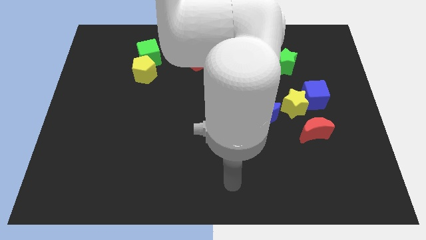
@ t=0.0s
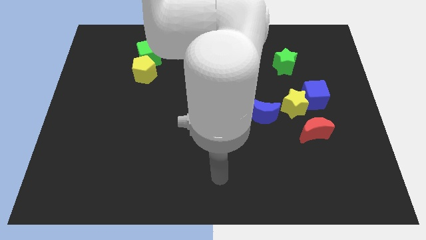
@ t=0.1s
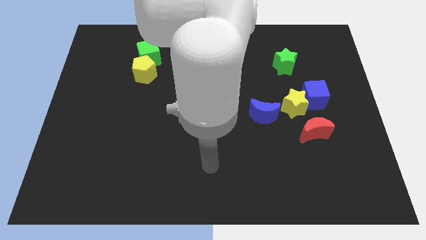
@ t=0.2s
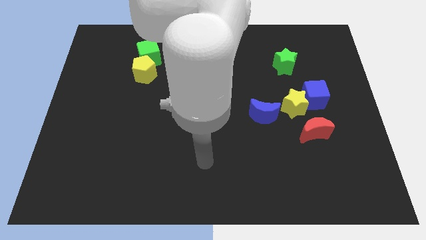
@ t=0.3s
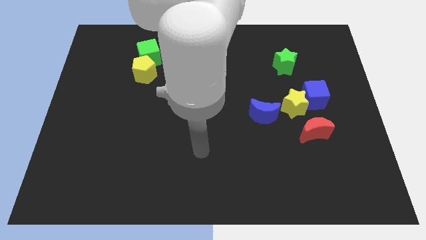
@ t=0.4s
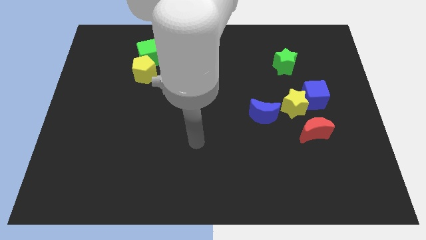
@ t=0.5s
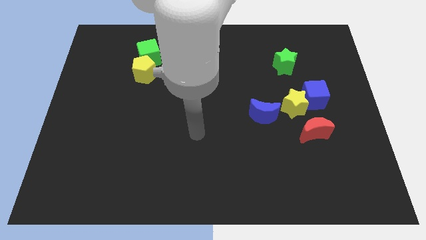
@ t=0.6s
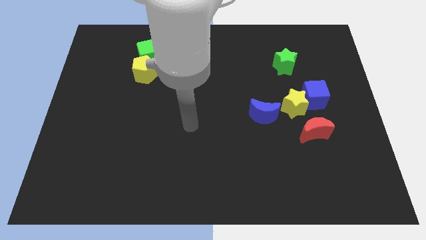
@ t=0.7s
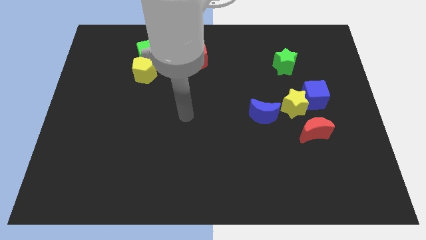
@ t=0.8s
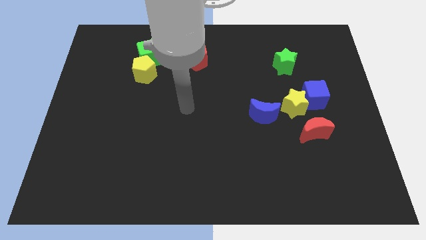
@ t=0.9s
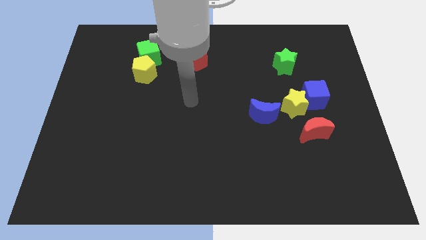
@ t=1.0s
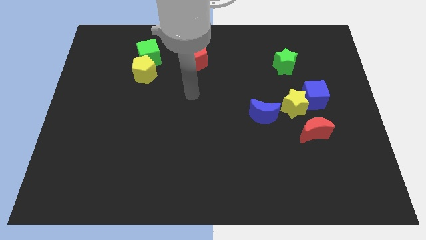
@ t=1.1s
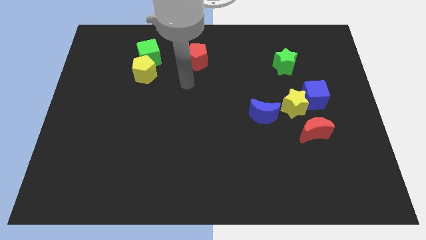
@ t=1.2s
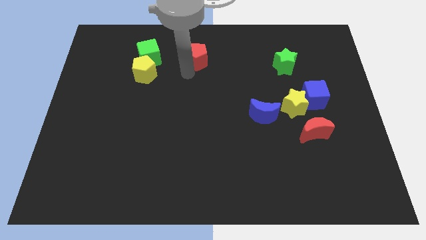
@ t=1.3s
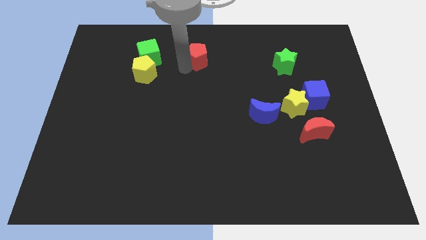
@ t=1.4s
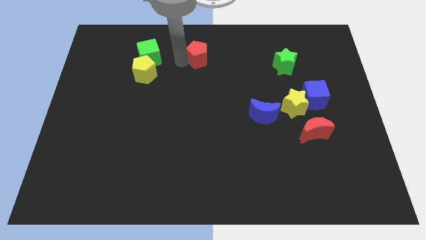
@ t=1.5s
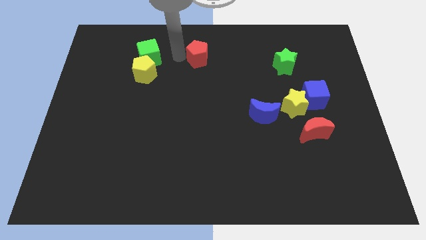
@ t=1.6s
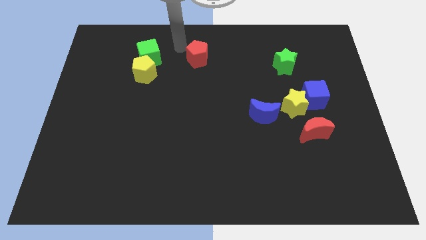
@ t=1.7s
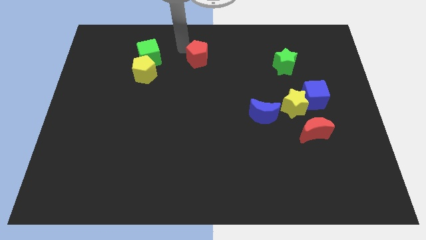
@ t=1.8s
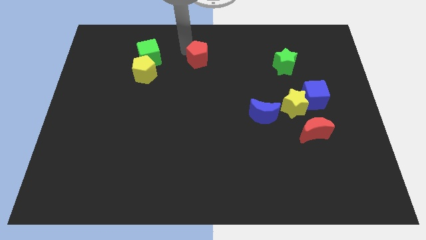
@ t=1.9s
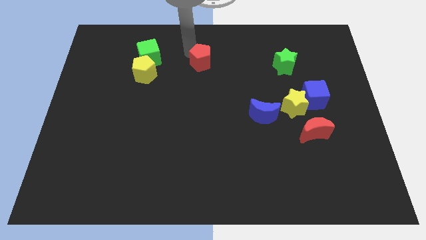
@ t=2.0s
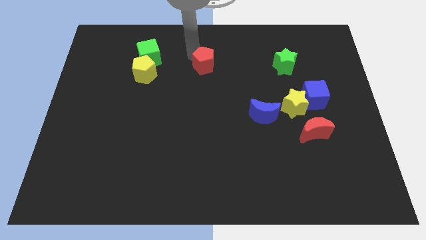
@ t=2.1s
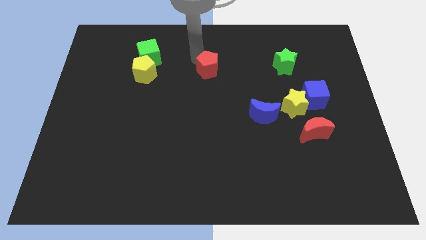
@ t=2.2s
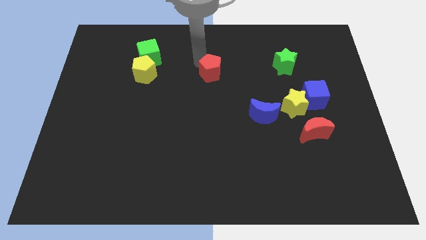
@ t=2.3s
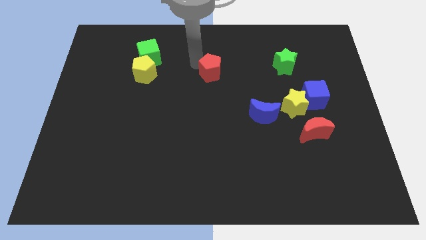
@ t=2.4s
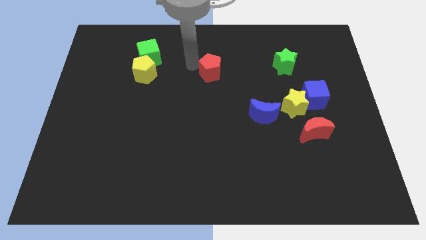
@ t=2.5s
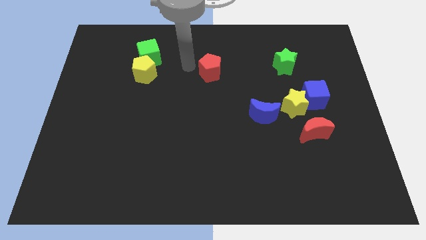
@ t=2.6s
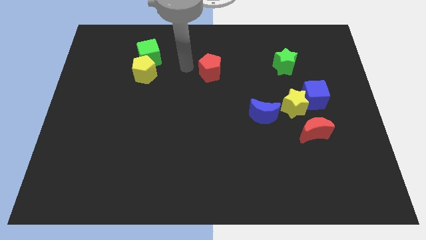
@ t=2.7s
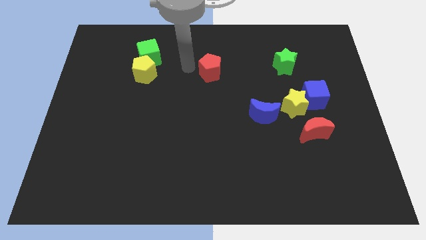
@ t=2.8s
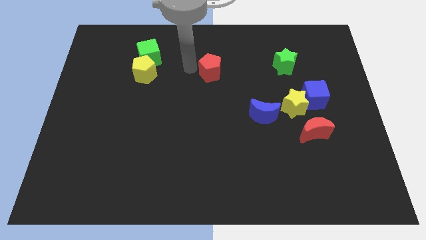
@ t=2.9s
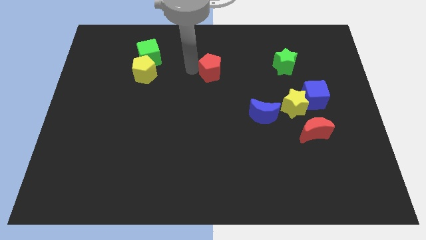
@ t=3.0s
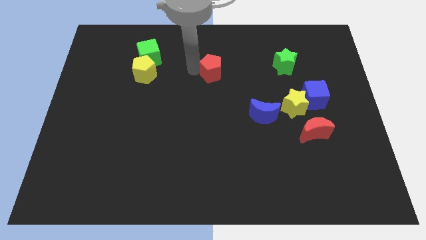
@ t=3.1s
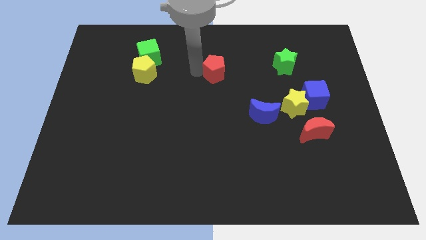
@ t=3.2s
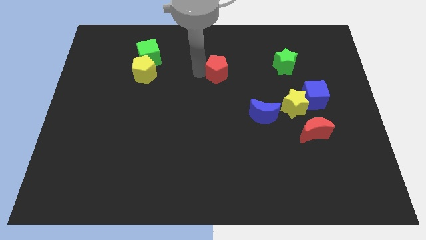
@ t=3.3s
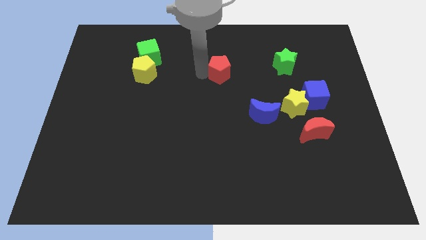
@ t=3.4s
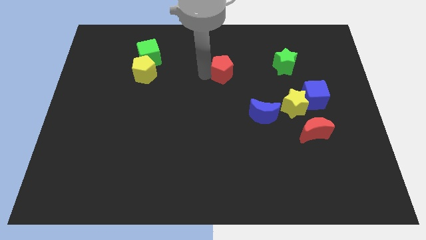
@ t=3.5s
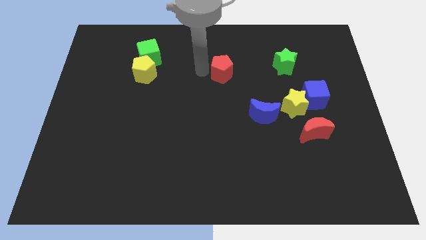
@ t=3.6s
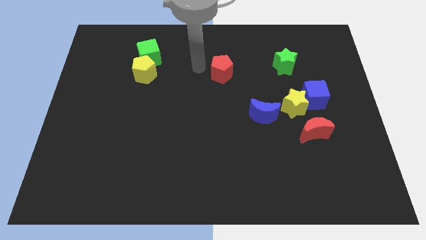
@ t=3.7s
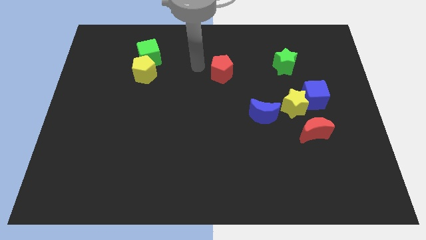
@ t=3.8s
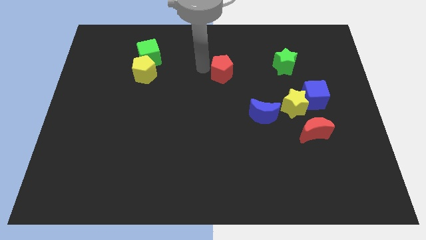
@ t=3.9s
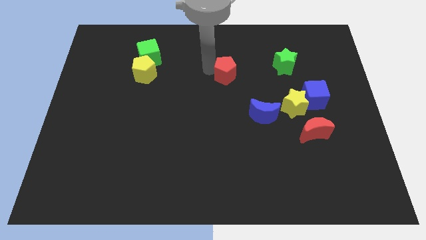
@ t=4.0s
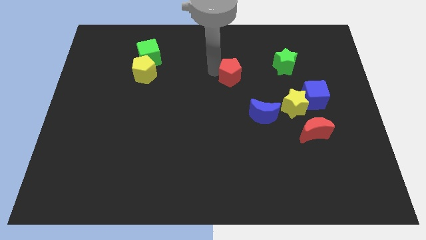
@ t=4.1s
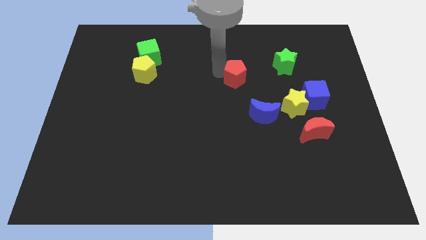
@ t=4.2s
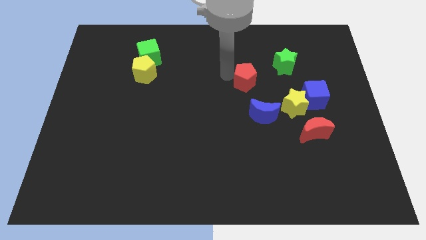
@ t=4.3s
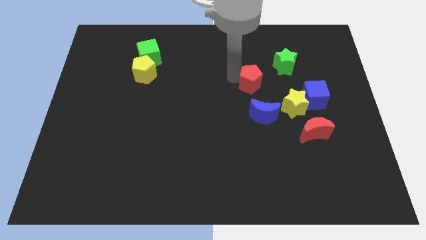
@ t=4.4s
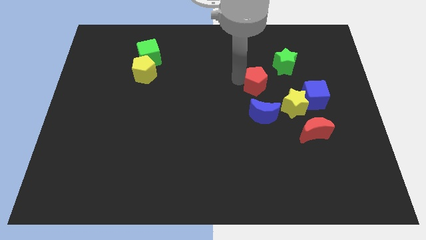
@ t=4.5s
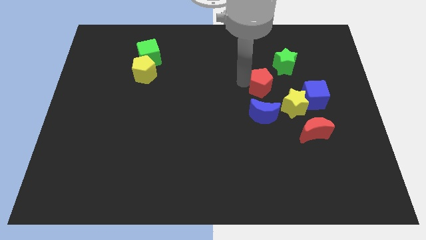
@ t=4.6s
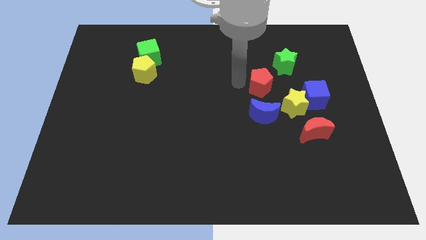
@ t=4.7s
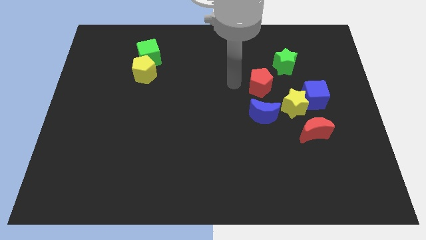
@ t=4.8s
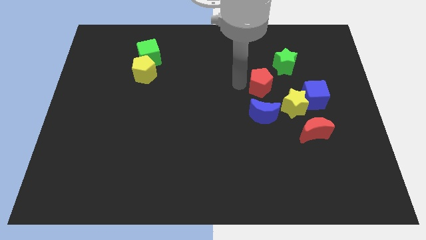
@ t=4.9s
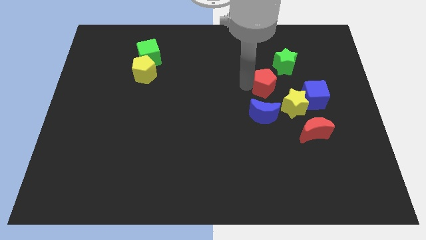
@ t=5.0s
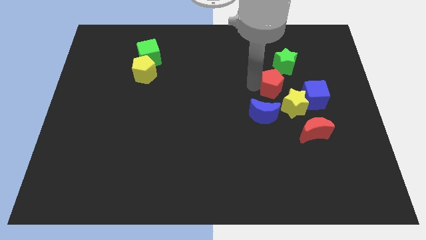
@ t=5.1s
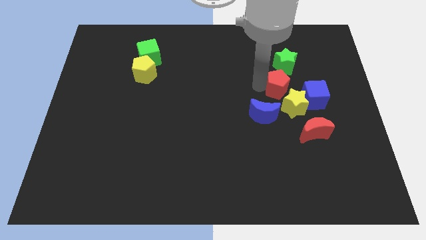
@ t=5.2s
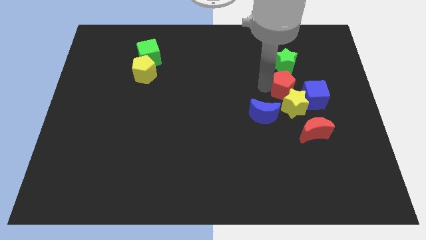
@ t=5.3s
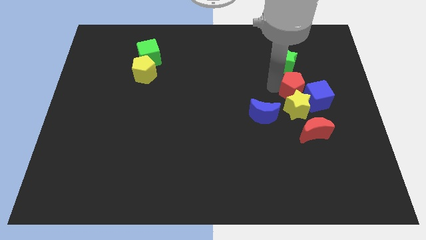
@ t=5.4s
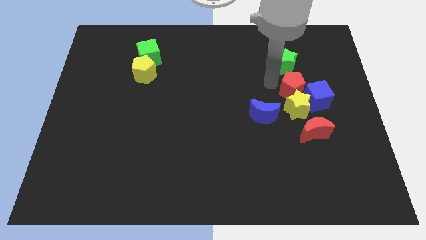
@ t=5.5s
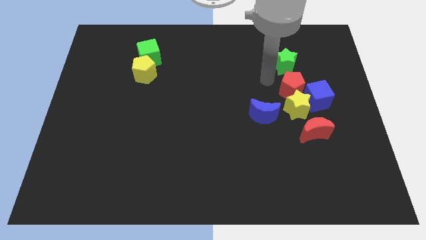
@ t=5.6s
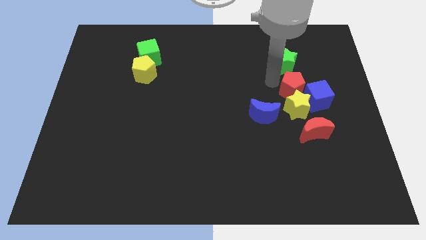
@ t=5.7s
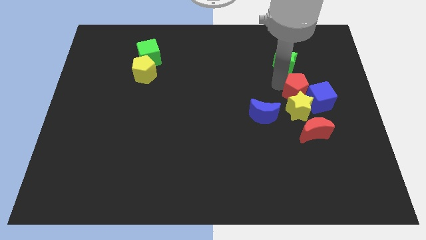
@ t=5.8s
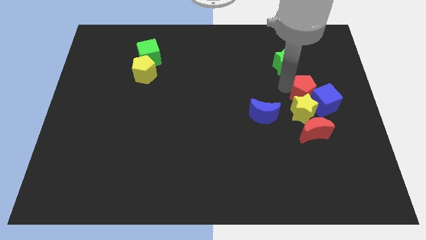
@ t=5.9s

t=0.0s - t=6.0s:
push the red pentagon towards the blue cube
